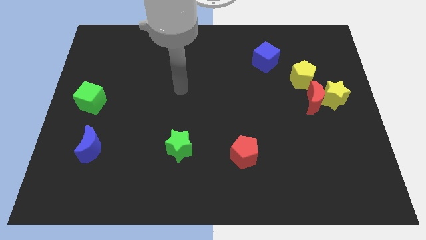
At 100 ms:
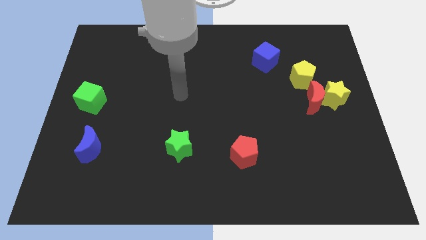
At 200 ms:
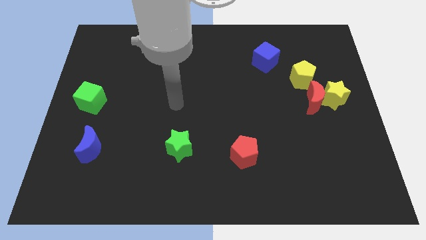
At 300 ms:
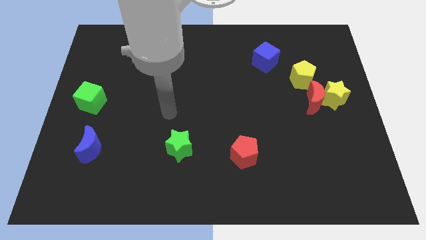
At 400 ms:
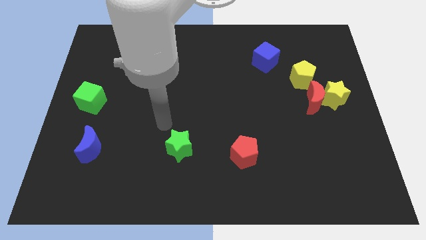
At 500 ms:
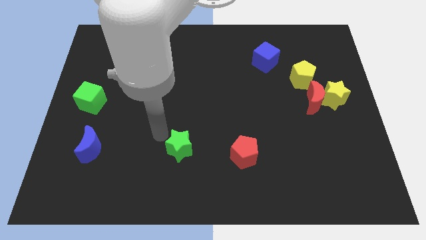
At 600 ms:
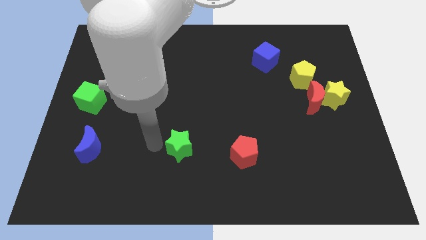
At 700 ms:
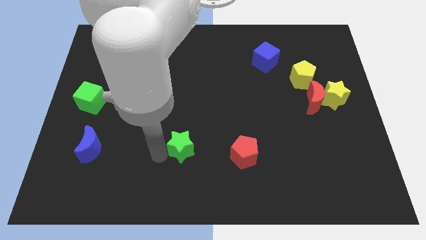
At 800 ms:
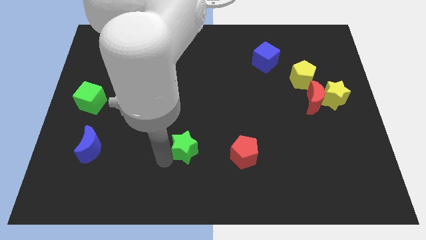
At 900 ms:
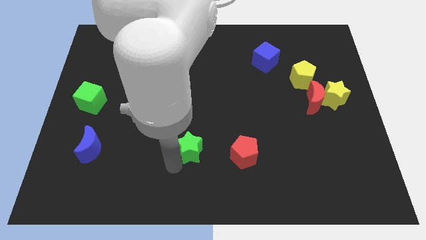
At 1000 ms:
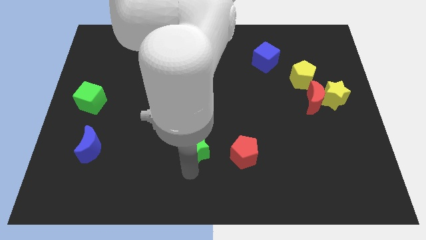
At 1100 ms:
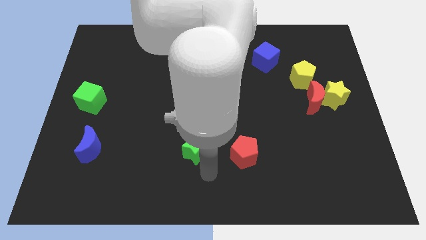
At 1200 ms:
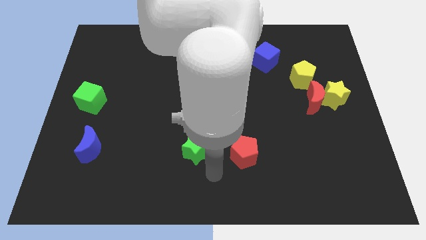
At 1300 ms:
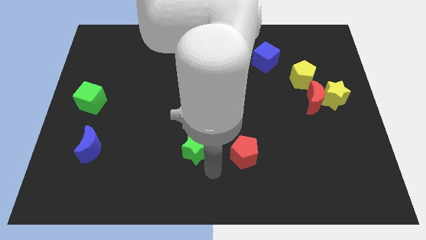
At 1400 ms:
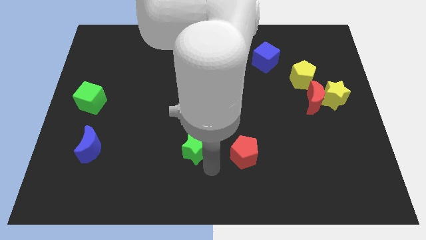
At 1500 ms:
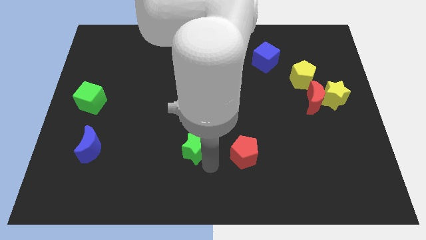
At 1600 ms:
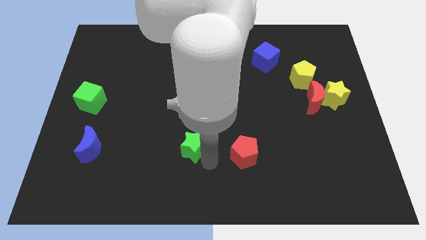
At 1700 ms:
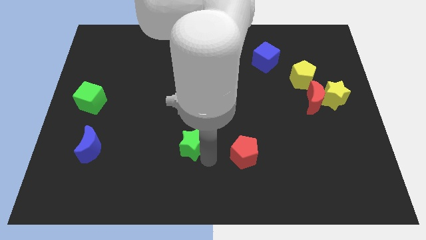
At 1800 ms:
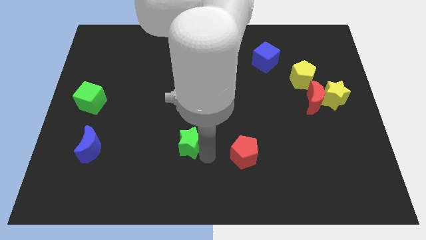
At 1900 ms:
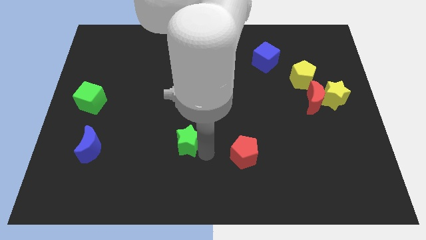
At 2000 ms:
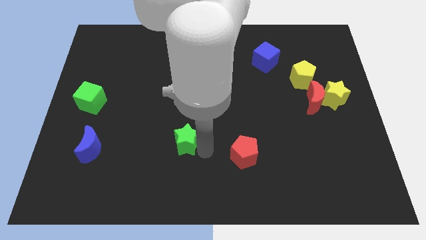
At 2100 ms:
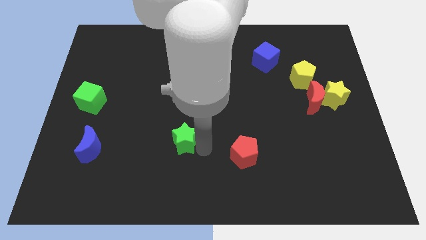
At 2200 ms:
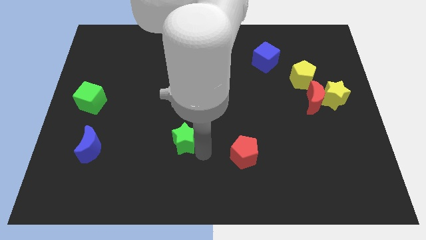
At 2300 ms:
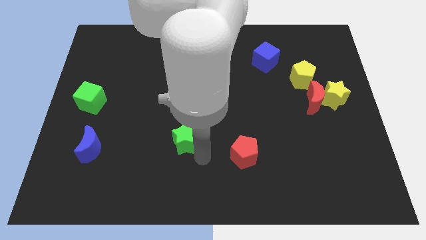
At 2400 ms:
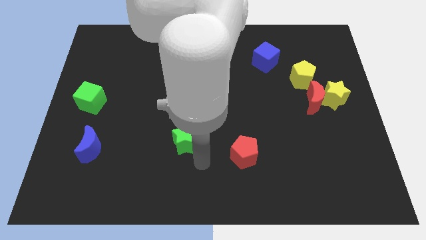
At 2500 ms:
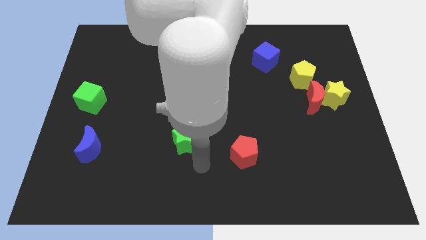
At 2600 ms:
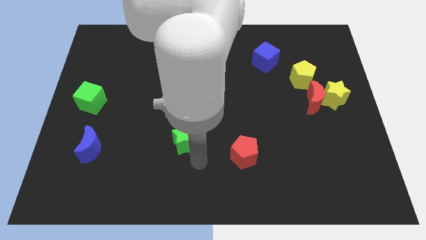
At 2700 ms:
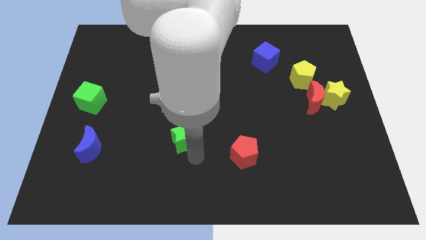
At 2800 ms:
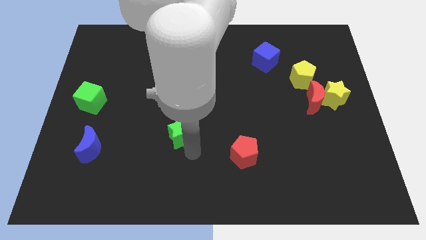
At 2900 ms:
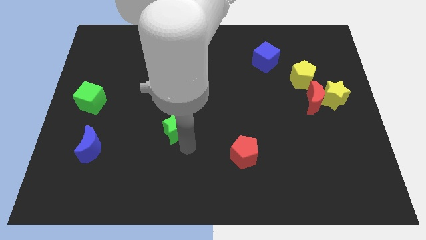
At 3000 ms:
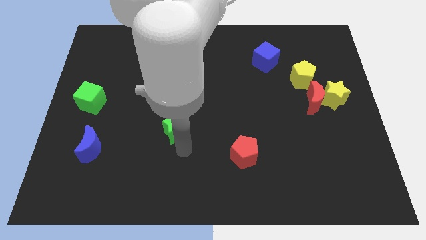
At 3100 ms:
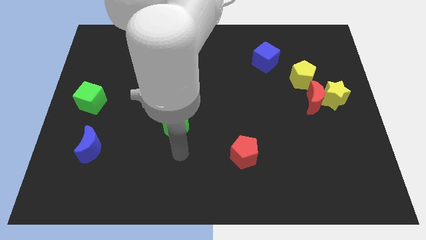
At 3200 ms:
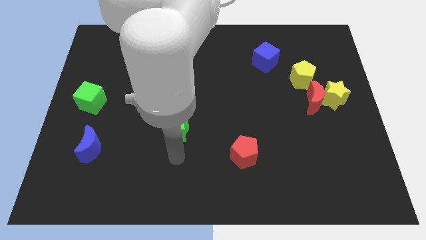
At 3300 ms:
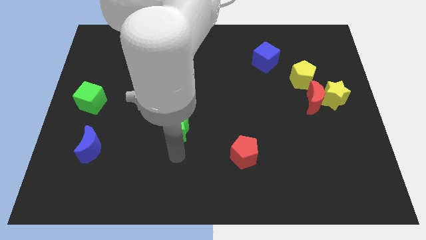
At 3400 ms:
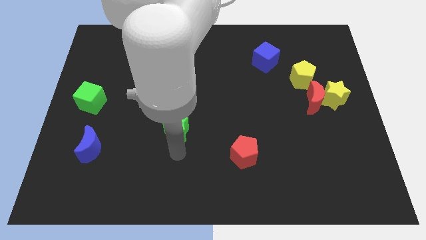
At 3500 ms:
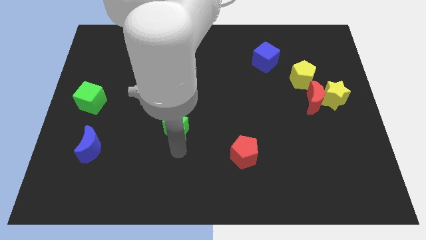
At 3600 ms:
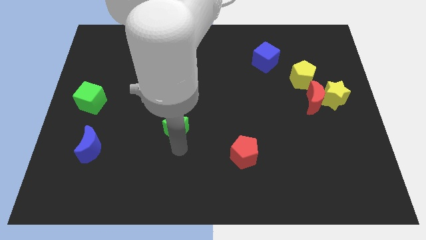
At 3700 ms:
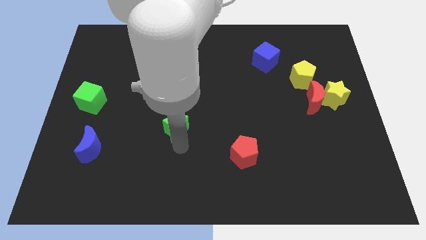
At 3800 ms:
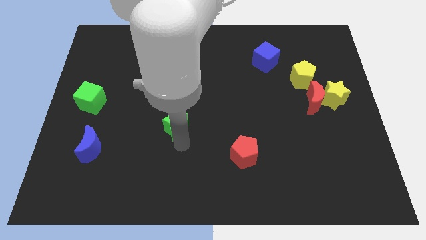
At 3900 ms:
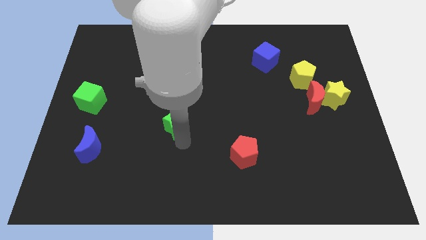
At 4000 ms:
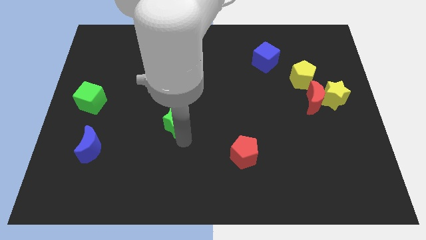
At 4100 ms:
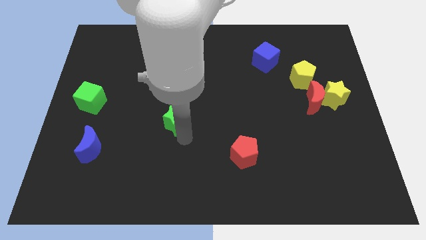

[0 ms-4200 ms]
slide the green star a little up

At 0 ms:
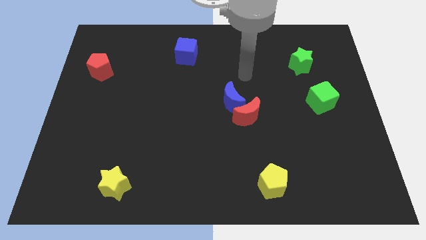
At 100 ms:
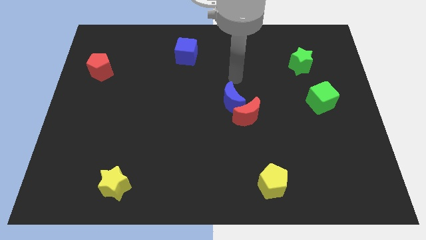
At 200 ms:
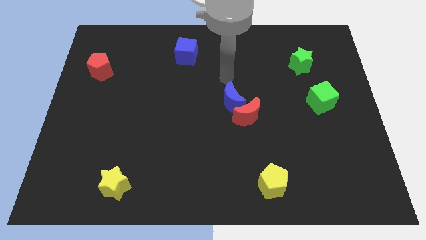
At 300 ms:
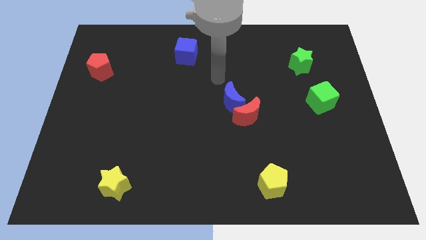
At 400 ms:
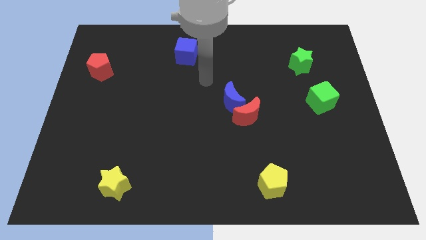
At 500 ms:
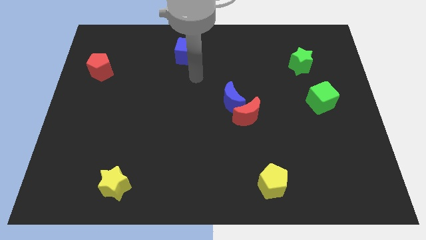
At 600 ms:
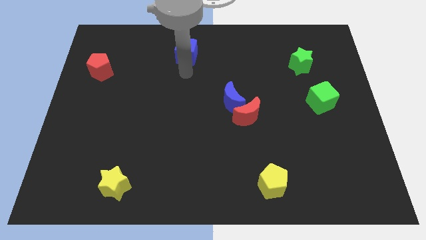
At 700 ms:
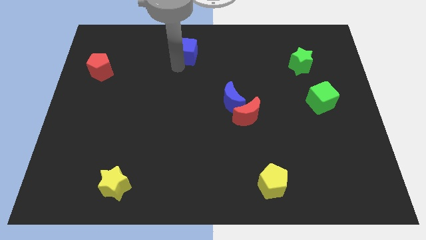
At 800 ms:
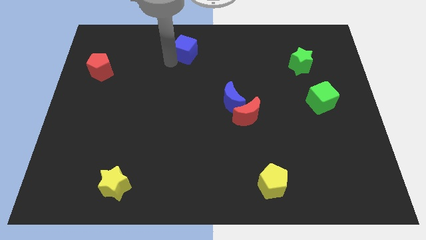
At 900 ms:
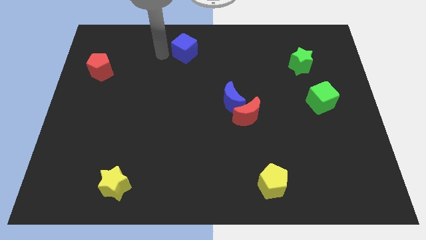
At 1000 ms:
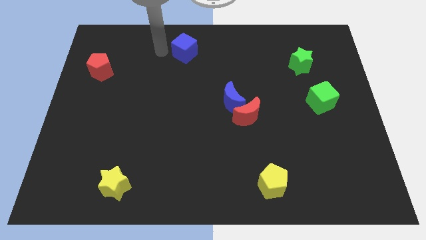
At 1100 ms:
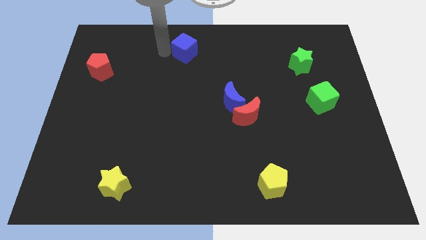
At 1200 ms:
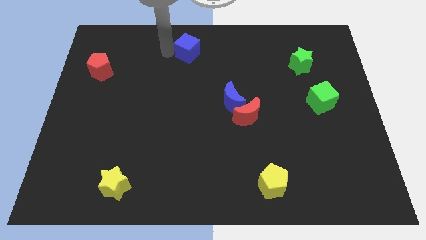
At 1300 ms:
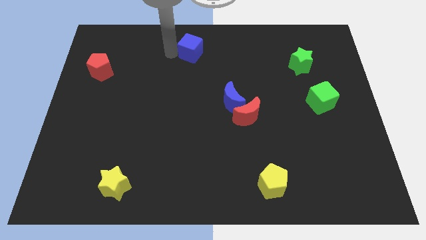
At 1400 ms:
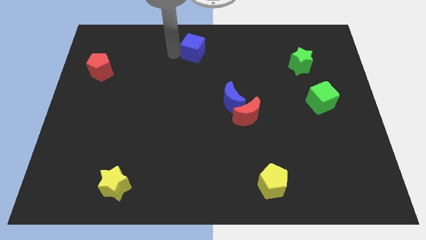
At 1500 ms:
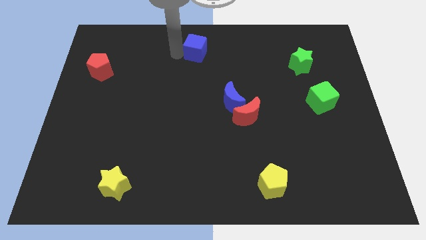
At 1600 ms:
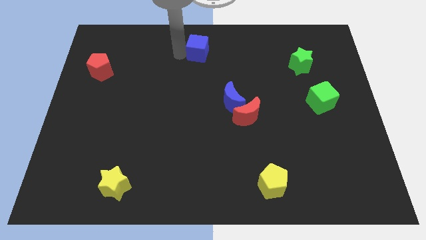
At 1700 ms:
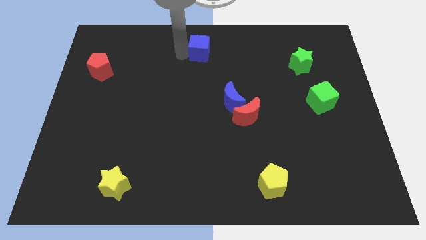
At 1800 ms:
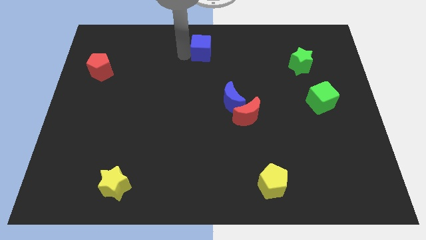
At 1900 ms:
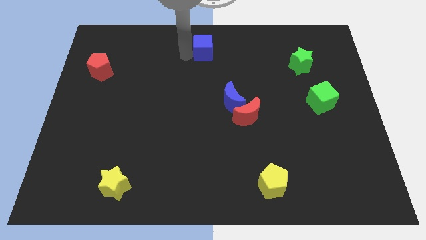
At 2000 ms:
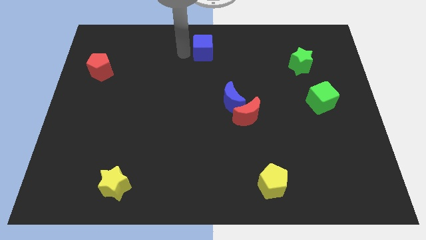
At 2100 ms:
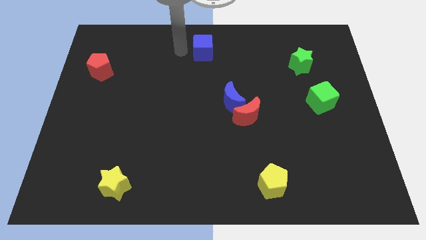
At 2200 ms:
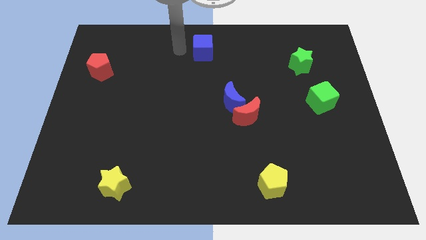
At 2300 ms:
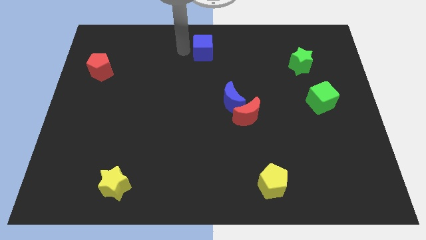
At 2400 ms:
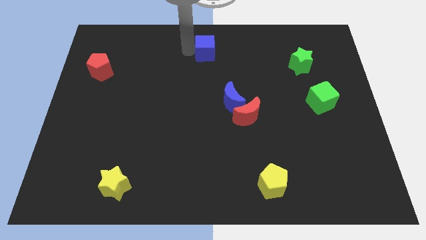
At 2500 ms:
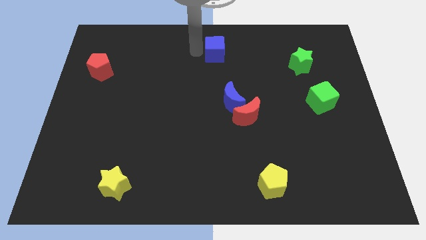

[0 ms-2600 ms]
move the blue cube right slightly

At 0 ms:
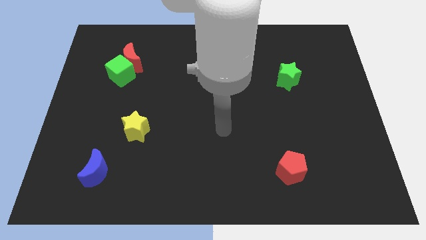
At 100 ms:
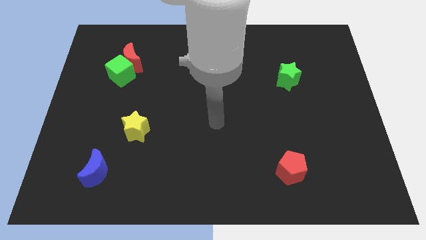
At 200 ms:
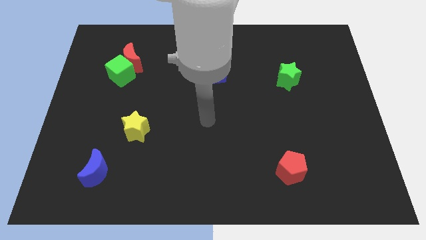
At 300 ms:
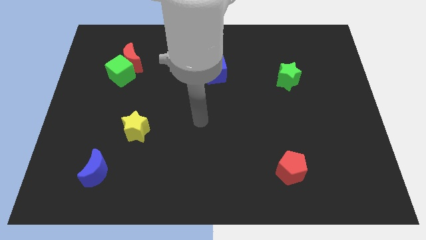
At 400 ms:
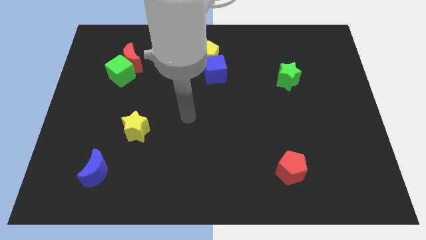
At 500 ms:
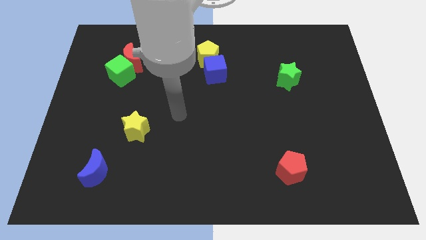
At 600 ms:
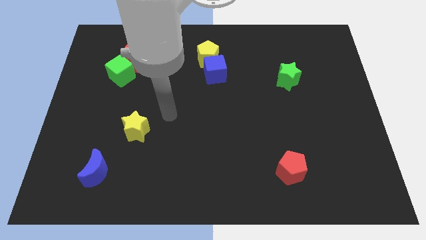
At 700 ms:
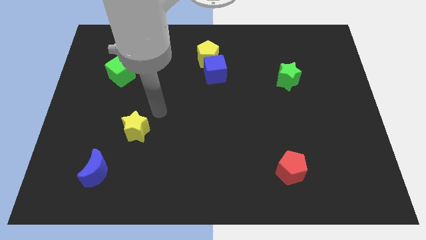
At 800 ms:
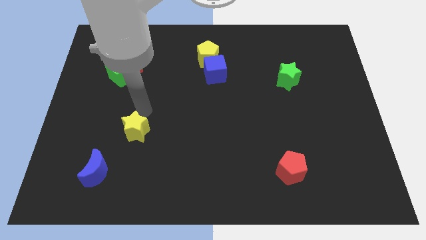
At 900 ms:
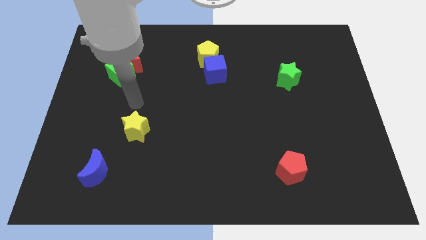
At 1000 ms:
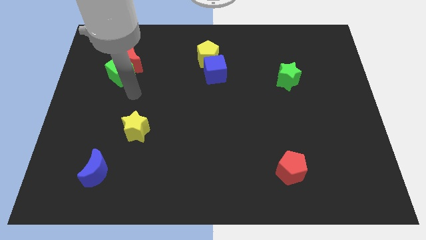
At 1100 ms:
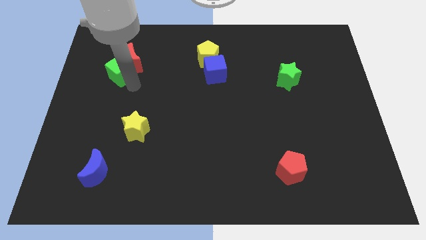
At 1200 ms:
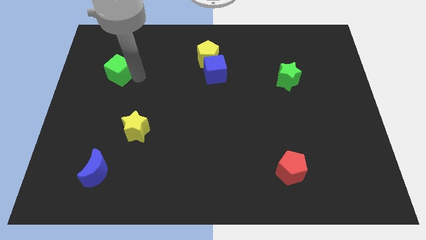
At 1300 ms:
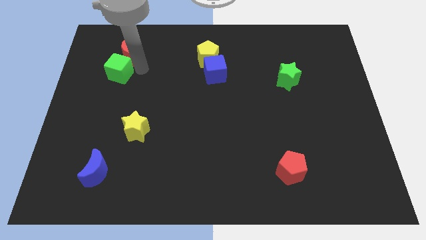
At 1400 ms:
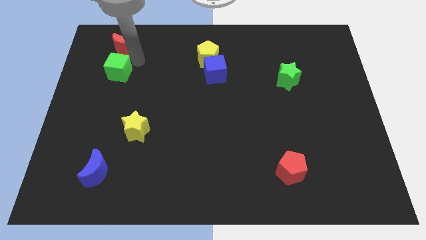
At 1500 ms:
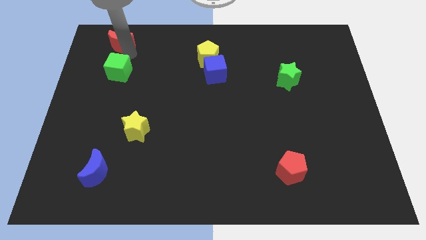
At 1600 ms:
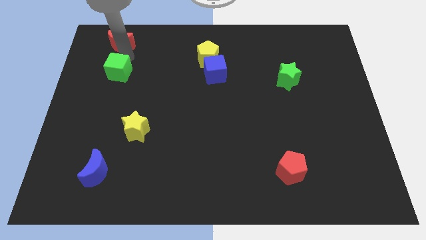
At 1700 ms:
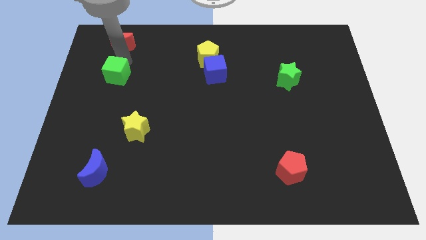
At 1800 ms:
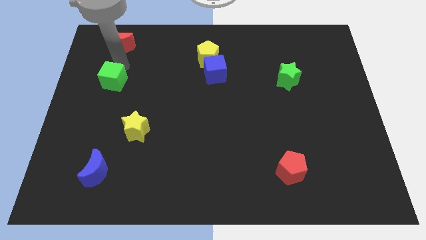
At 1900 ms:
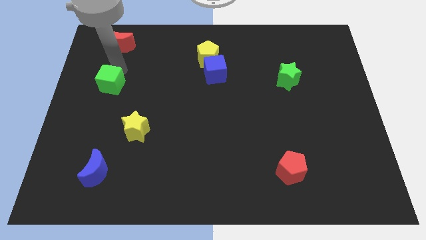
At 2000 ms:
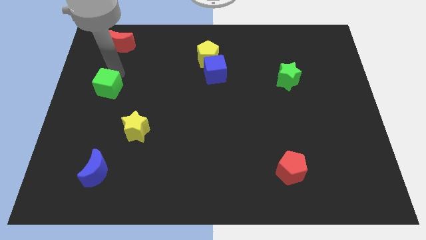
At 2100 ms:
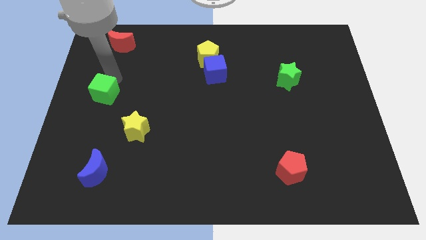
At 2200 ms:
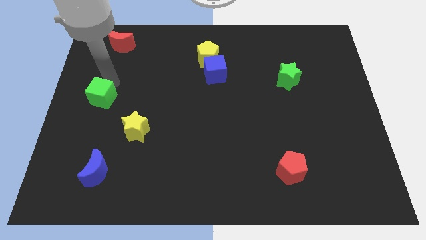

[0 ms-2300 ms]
move the green cube downwards a little
